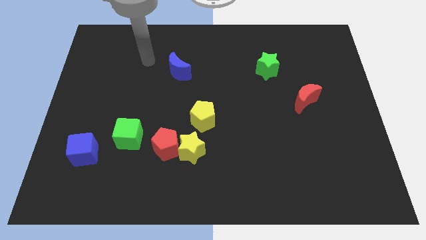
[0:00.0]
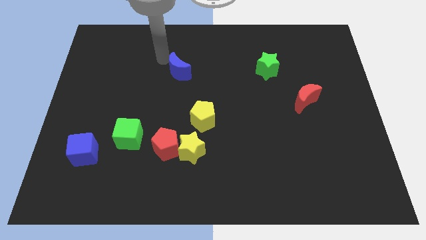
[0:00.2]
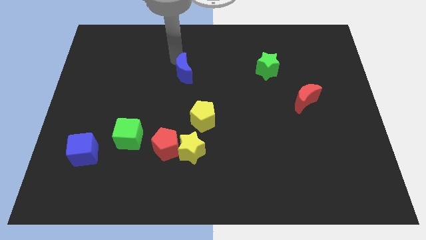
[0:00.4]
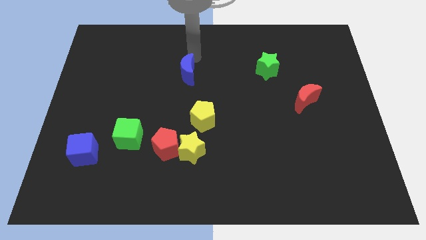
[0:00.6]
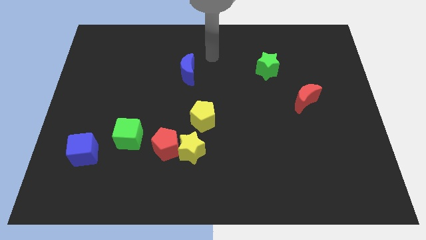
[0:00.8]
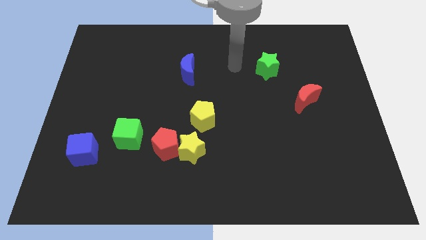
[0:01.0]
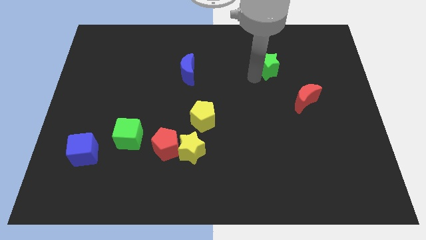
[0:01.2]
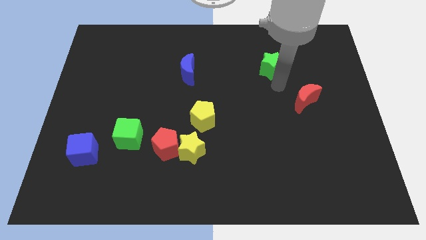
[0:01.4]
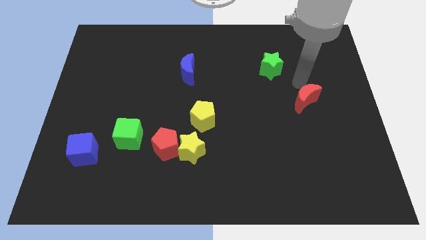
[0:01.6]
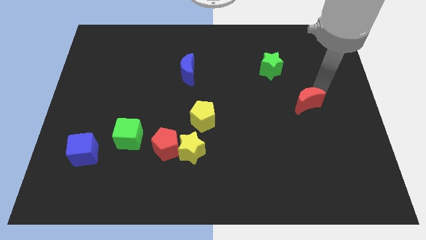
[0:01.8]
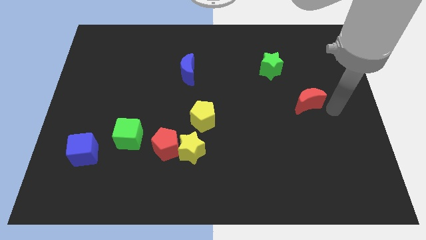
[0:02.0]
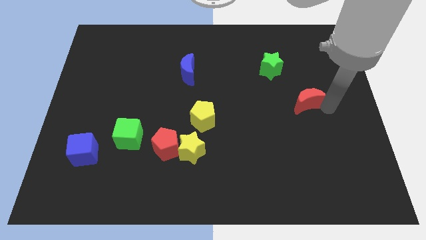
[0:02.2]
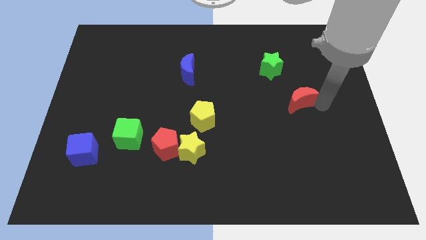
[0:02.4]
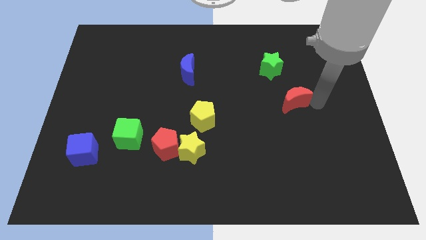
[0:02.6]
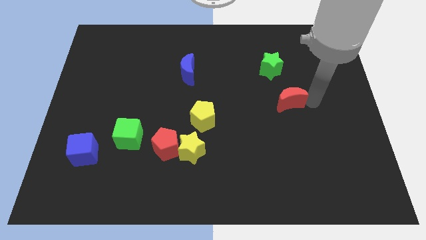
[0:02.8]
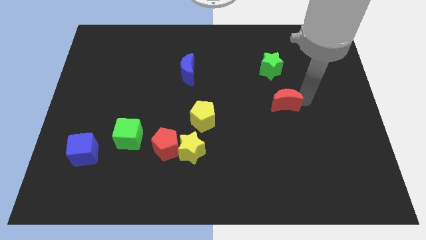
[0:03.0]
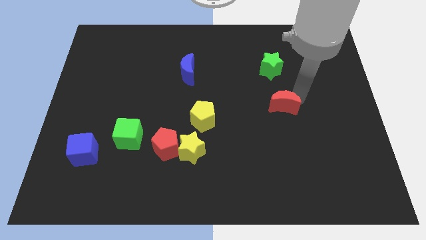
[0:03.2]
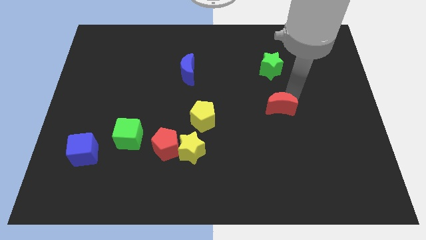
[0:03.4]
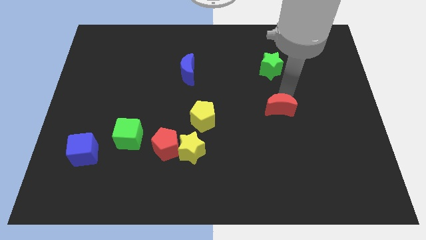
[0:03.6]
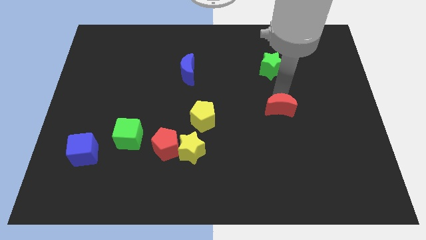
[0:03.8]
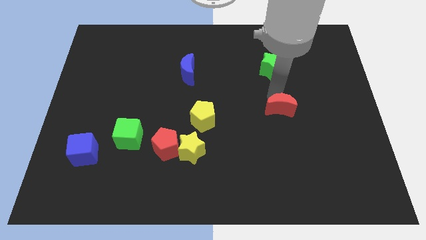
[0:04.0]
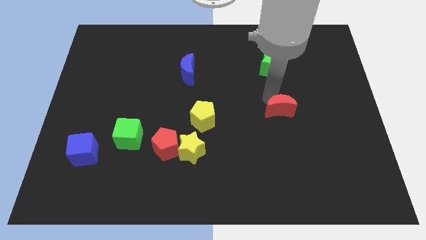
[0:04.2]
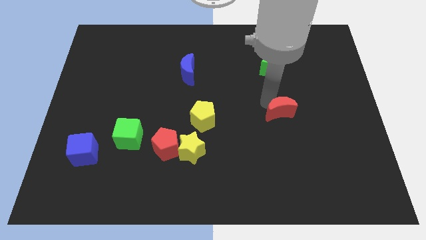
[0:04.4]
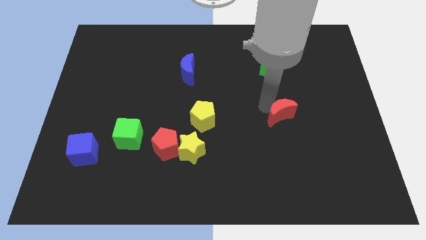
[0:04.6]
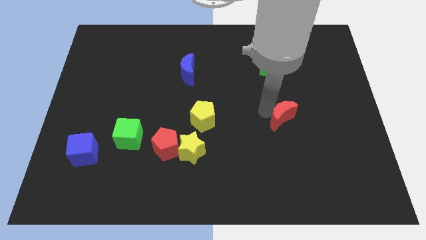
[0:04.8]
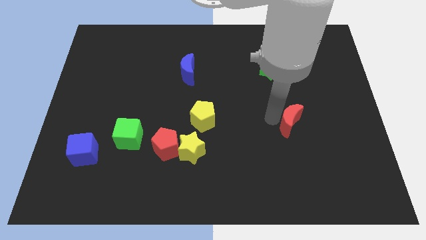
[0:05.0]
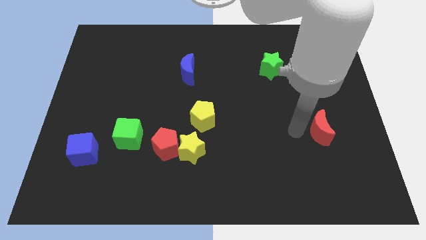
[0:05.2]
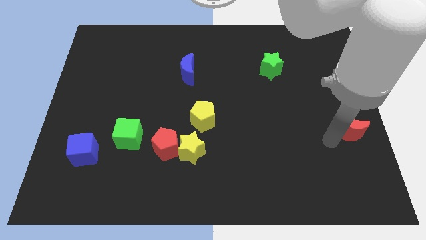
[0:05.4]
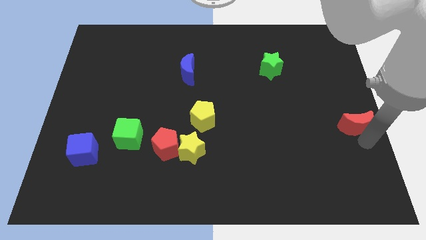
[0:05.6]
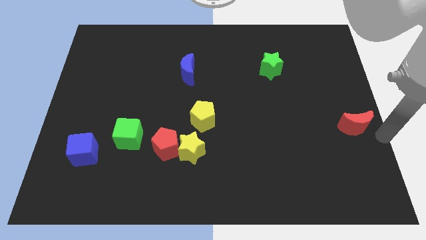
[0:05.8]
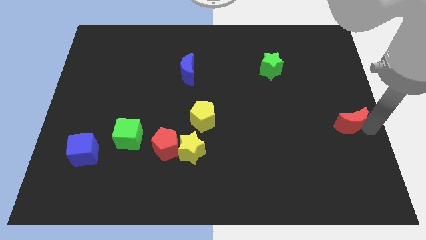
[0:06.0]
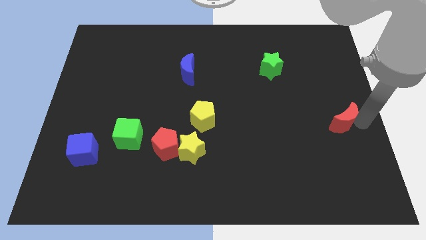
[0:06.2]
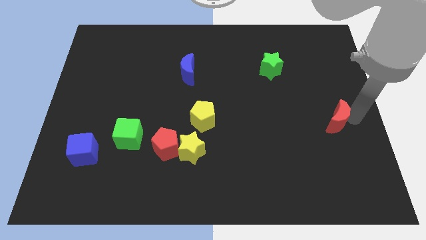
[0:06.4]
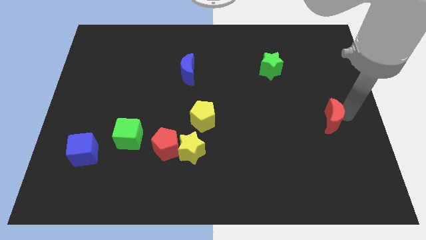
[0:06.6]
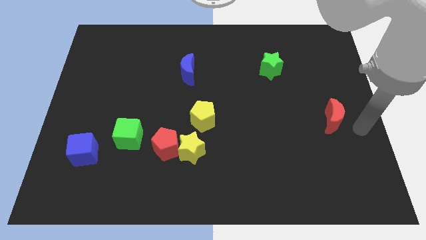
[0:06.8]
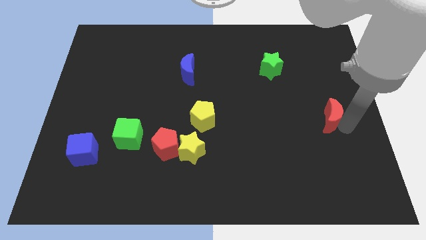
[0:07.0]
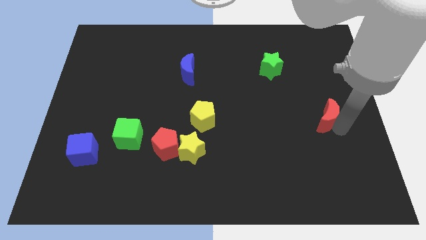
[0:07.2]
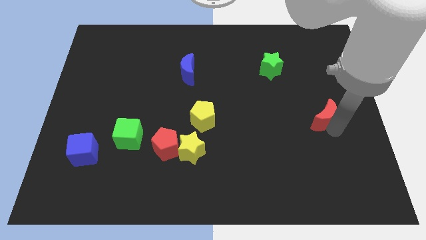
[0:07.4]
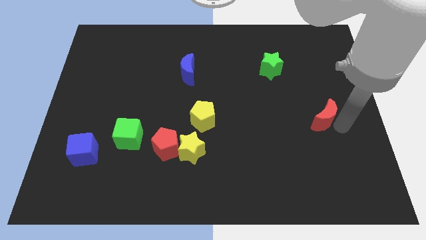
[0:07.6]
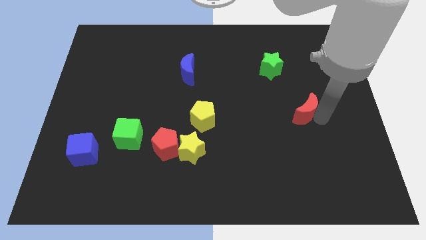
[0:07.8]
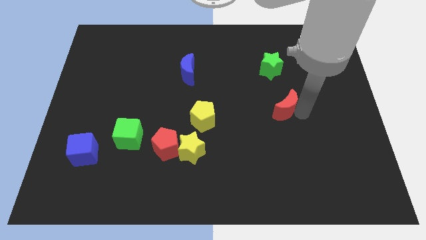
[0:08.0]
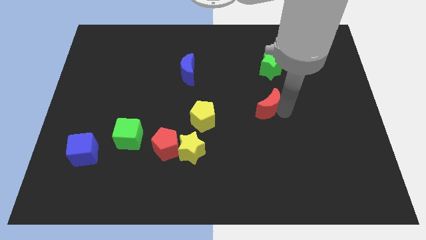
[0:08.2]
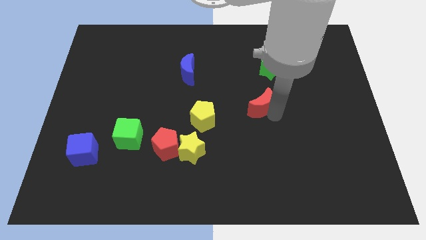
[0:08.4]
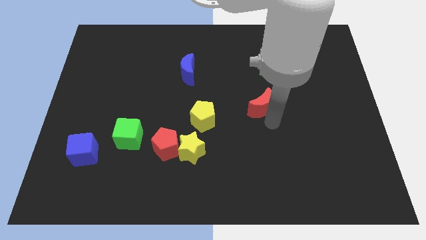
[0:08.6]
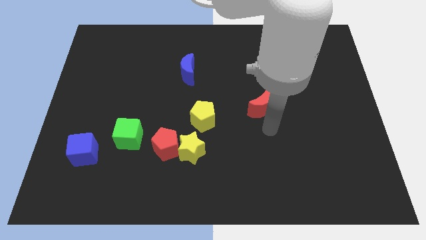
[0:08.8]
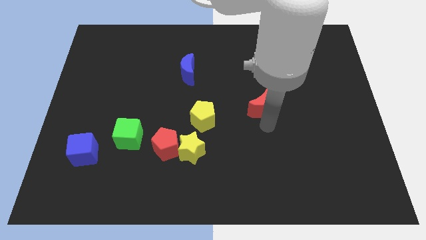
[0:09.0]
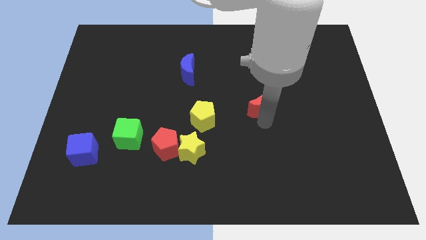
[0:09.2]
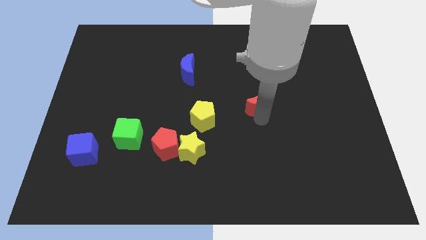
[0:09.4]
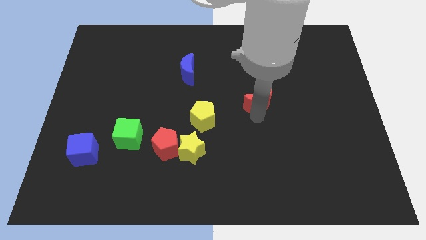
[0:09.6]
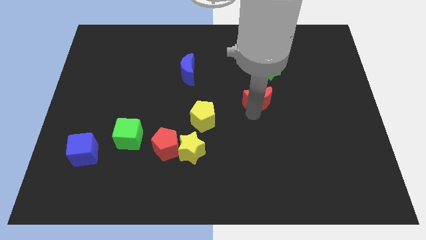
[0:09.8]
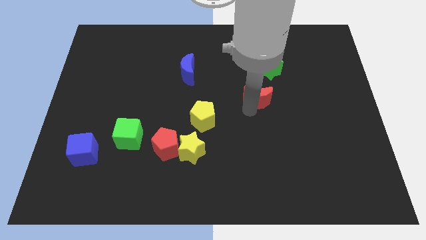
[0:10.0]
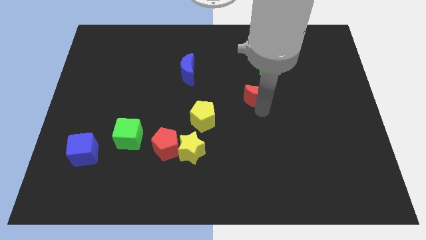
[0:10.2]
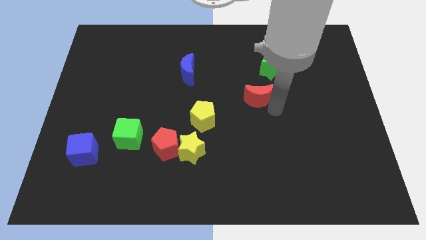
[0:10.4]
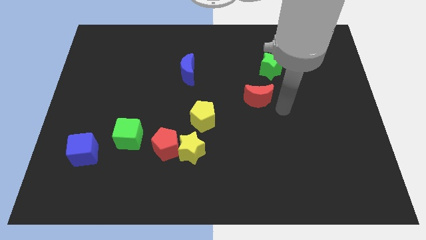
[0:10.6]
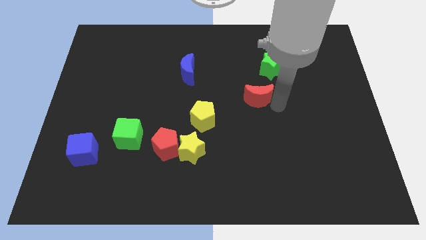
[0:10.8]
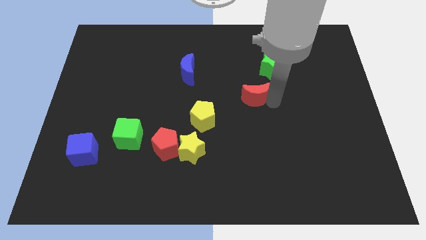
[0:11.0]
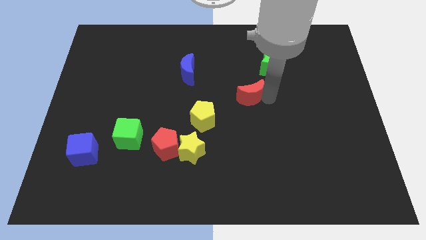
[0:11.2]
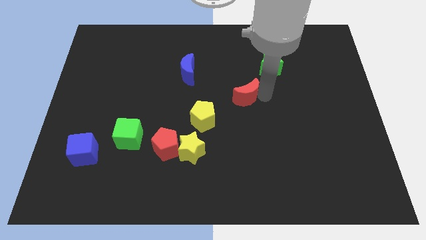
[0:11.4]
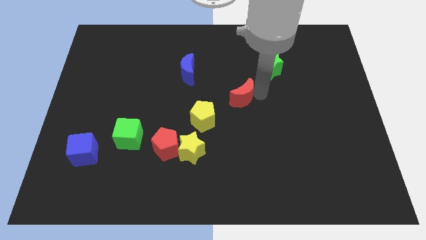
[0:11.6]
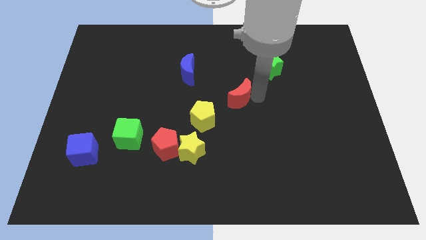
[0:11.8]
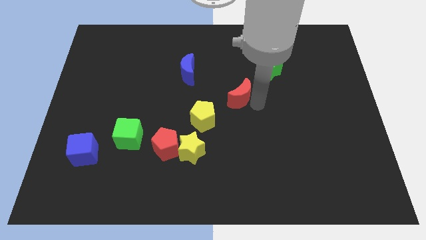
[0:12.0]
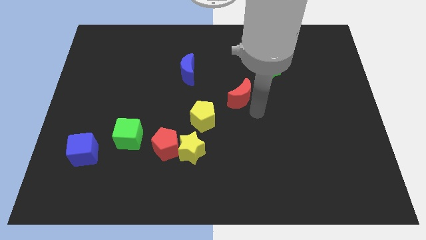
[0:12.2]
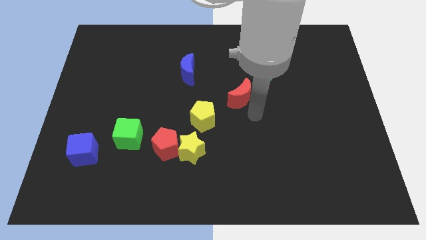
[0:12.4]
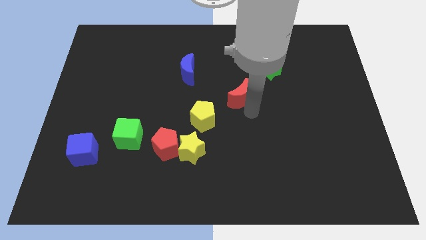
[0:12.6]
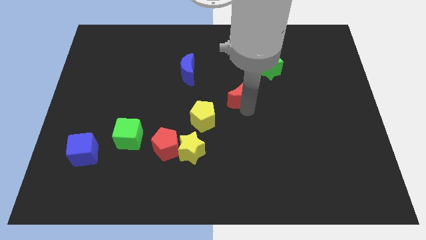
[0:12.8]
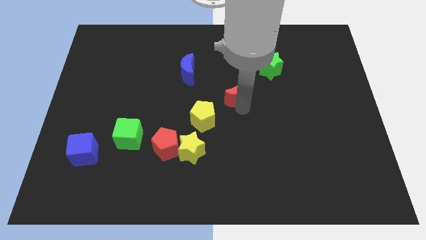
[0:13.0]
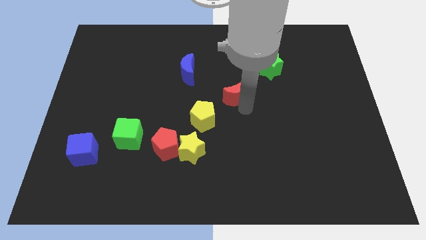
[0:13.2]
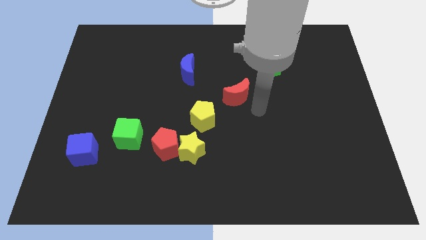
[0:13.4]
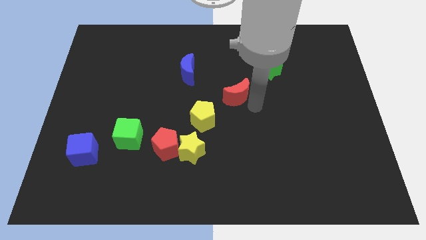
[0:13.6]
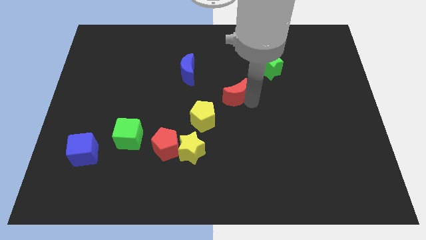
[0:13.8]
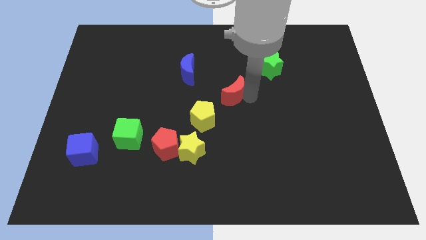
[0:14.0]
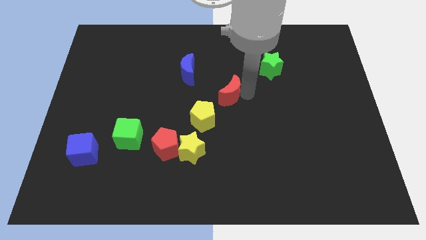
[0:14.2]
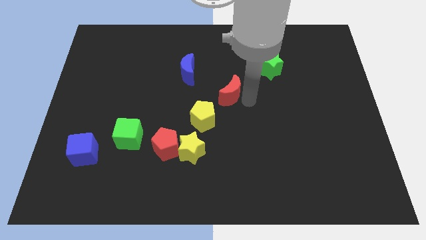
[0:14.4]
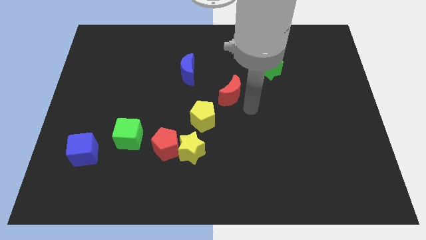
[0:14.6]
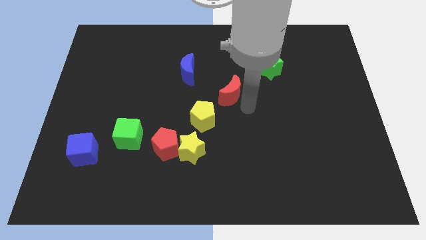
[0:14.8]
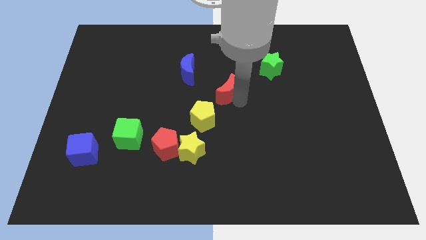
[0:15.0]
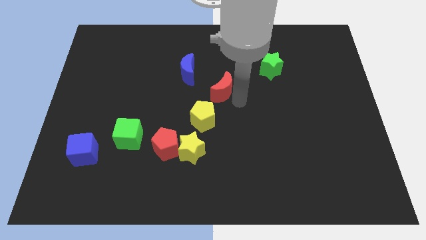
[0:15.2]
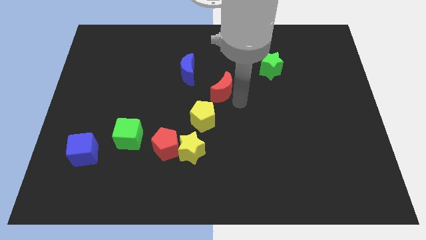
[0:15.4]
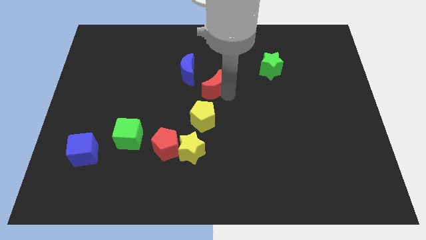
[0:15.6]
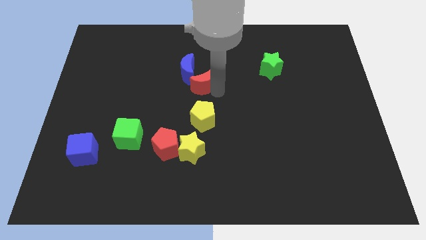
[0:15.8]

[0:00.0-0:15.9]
put the red moon towards the blue moon
